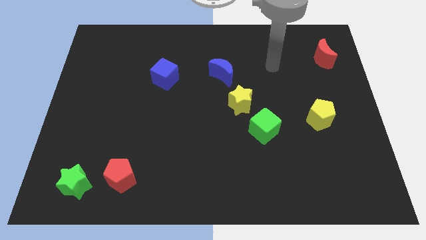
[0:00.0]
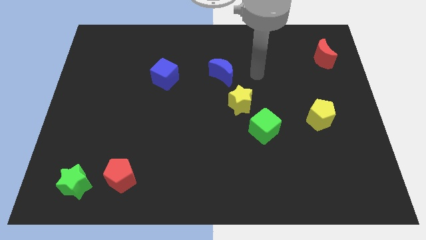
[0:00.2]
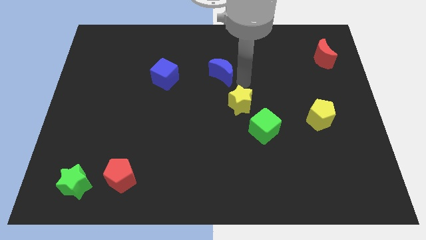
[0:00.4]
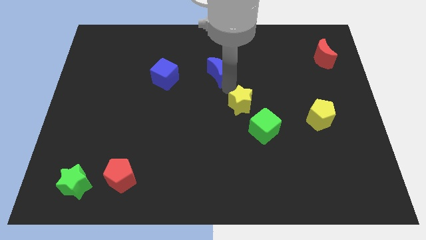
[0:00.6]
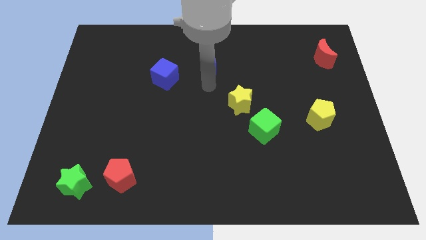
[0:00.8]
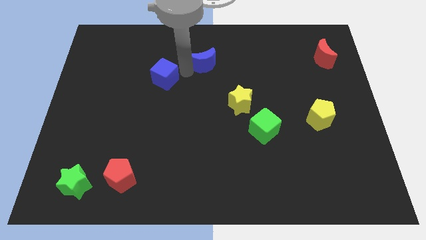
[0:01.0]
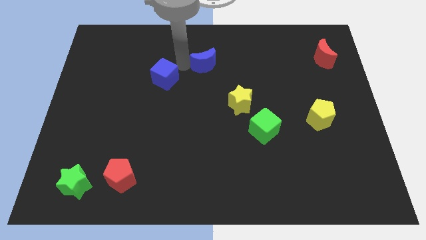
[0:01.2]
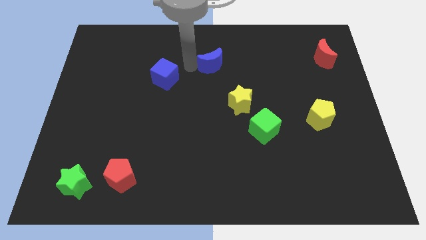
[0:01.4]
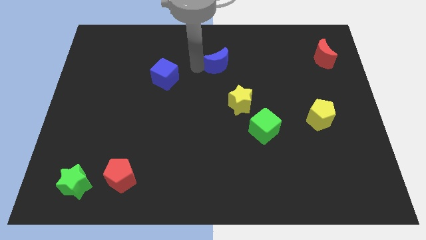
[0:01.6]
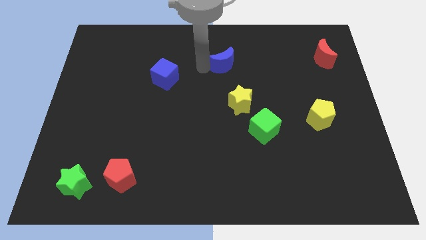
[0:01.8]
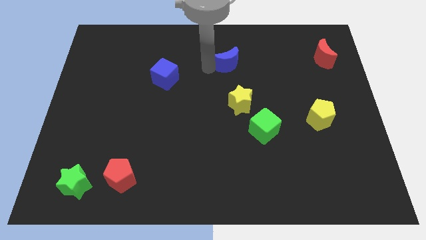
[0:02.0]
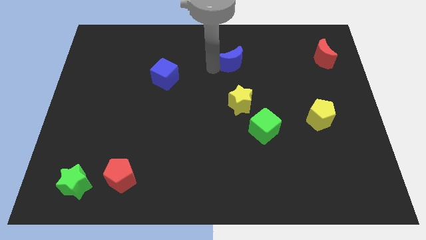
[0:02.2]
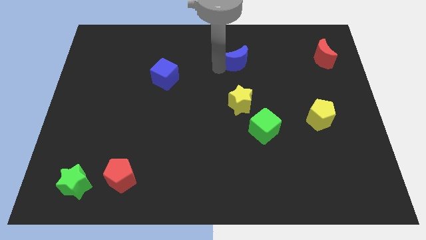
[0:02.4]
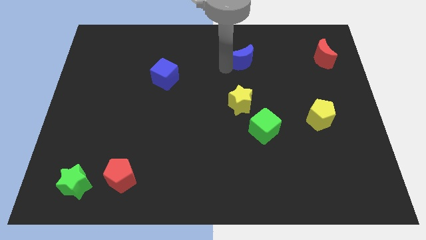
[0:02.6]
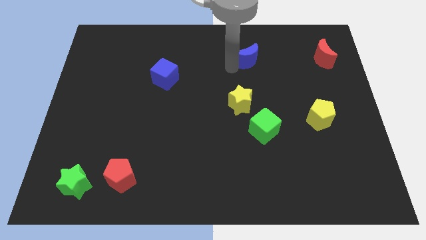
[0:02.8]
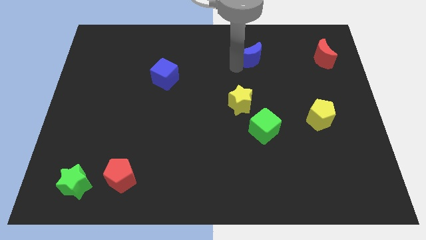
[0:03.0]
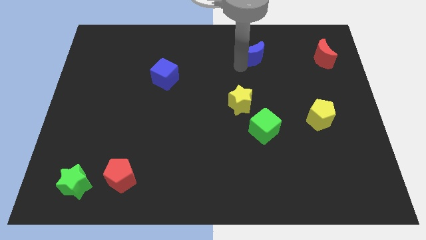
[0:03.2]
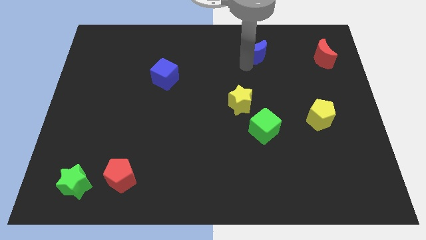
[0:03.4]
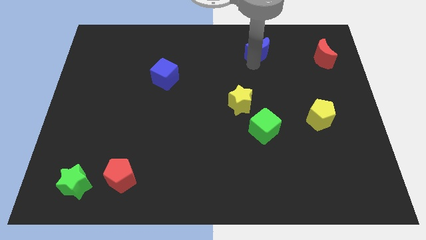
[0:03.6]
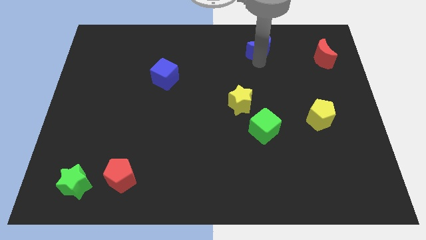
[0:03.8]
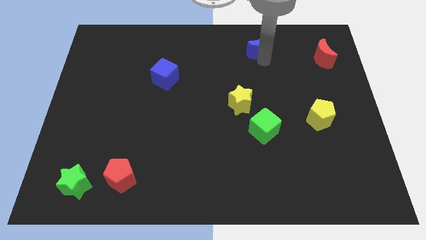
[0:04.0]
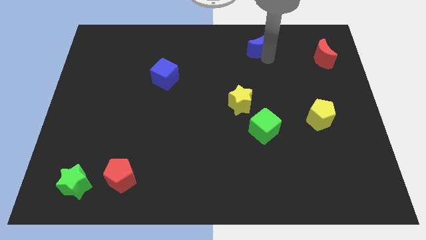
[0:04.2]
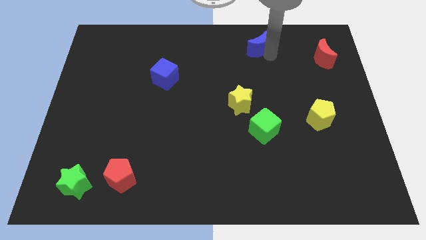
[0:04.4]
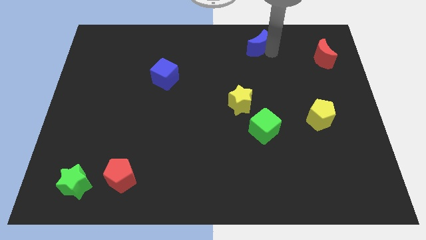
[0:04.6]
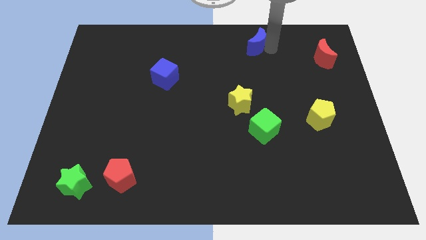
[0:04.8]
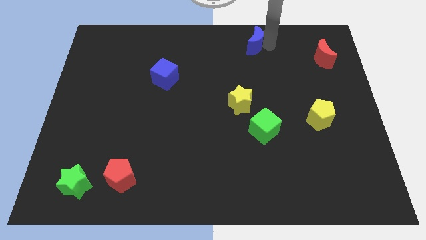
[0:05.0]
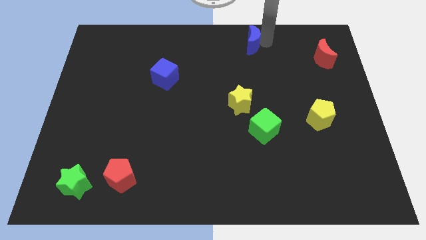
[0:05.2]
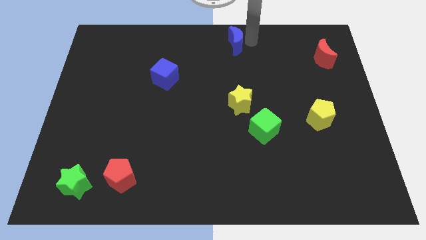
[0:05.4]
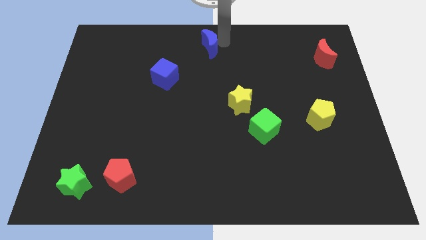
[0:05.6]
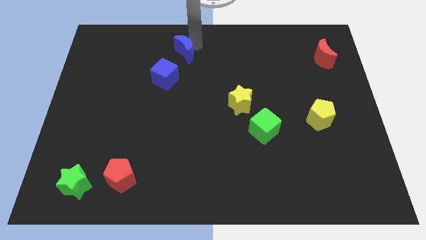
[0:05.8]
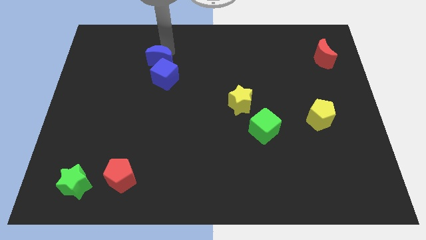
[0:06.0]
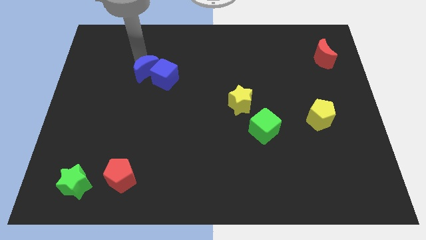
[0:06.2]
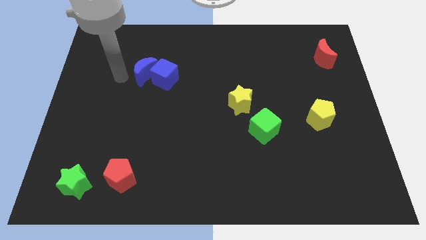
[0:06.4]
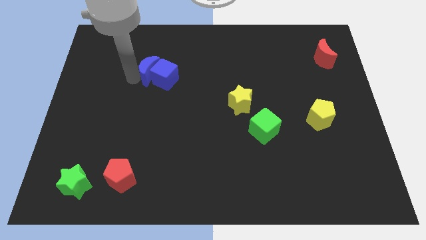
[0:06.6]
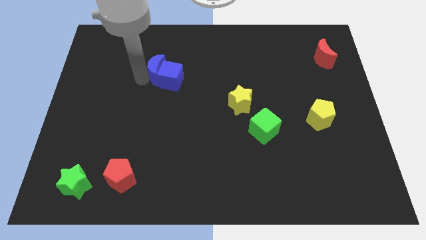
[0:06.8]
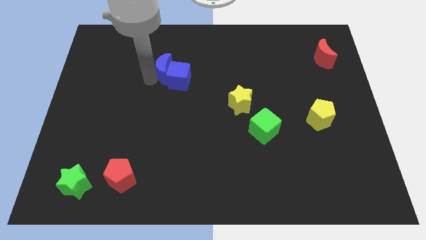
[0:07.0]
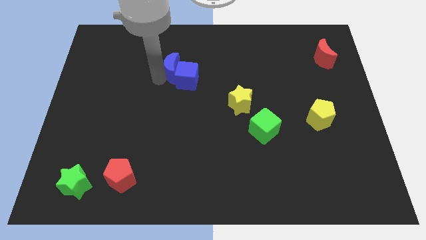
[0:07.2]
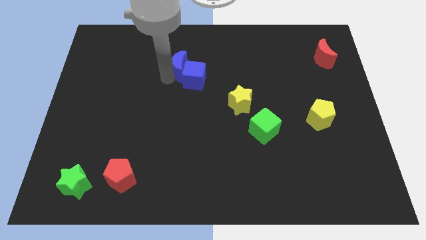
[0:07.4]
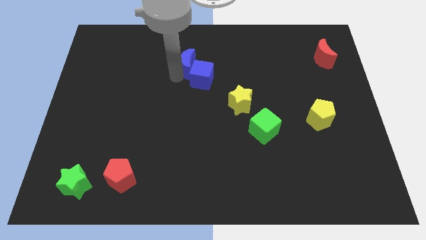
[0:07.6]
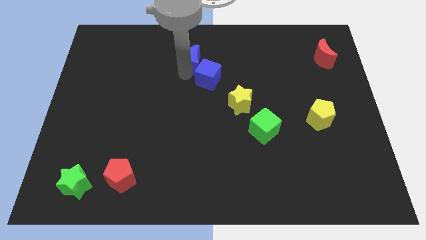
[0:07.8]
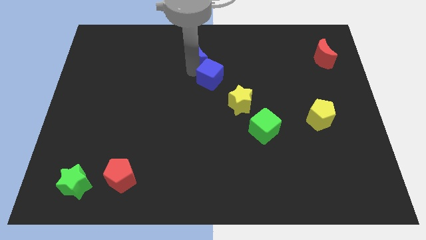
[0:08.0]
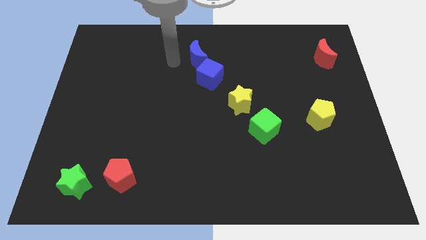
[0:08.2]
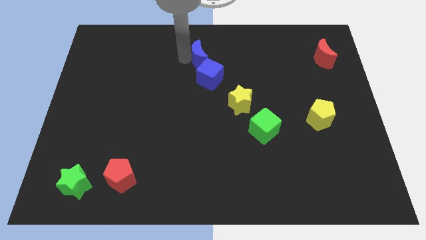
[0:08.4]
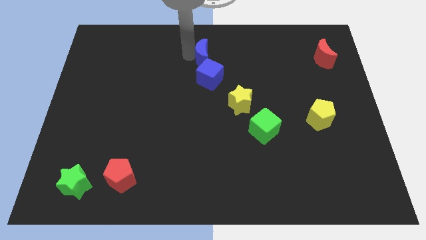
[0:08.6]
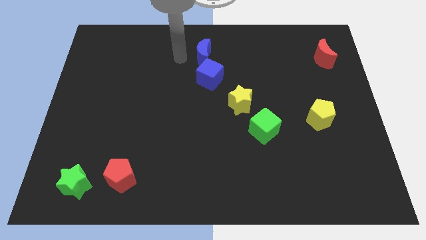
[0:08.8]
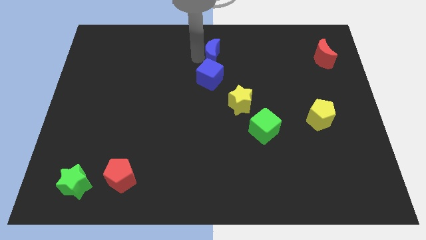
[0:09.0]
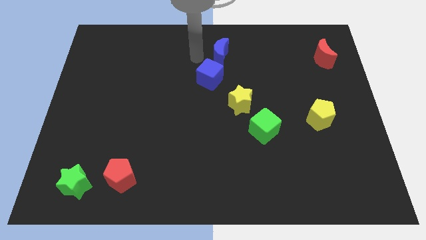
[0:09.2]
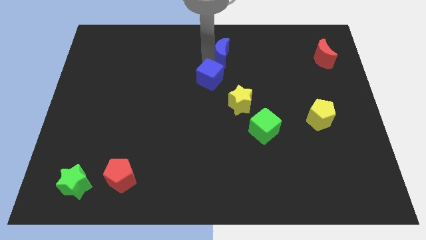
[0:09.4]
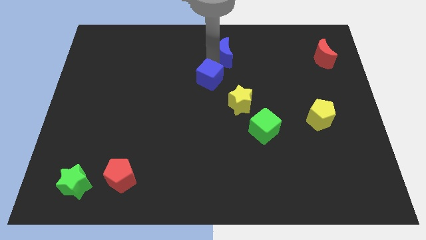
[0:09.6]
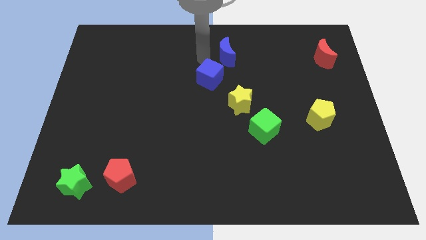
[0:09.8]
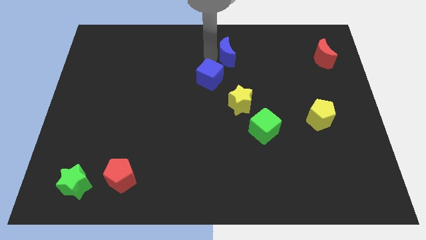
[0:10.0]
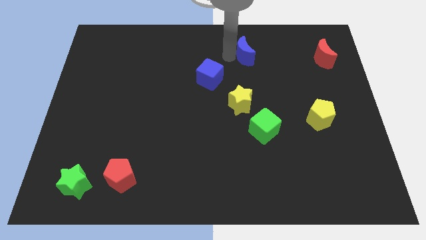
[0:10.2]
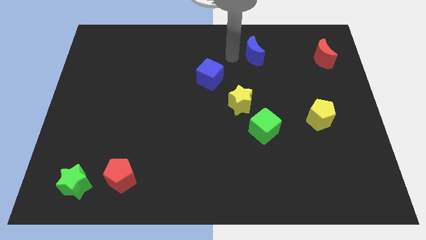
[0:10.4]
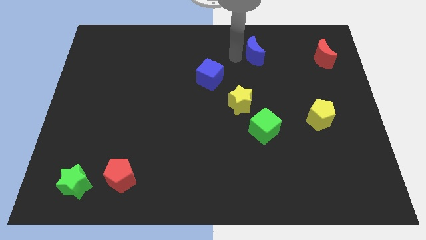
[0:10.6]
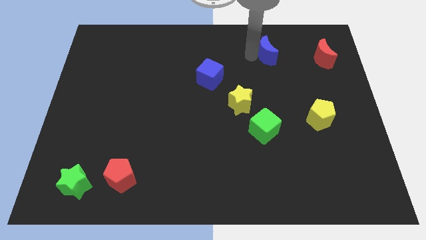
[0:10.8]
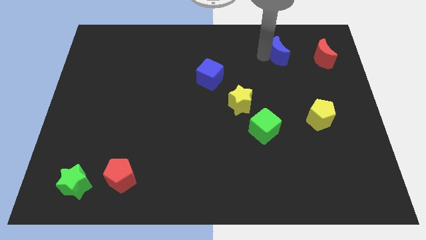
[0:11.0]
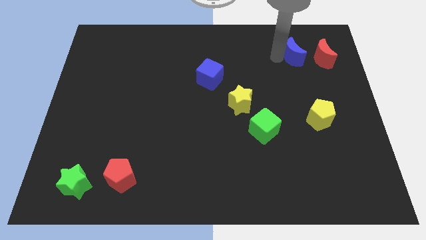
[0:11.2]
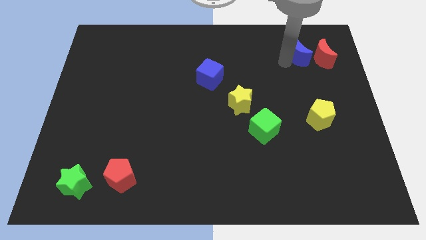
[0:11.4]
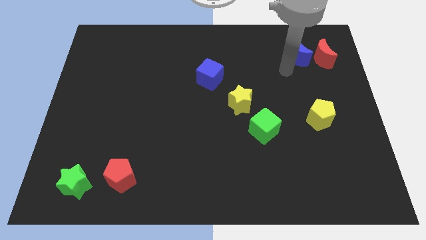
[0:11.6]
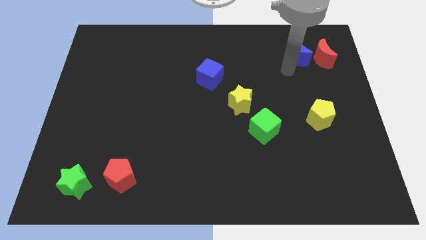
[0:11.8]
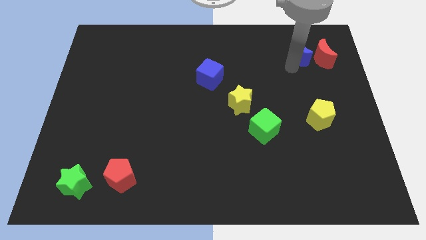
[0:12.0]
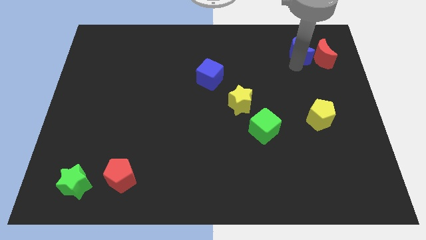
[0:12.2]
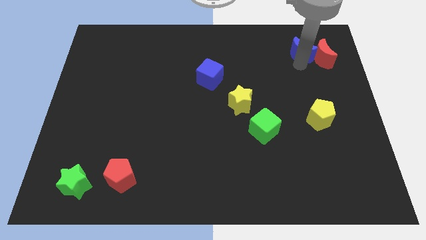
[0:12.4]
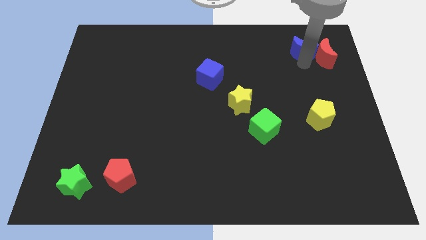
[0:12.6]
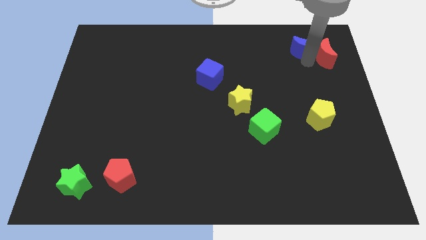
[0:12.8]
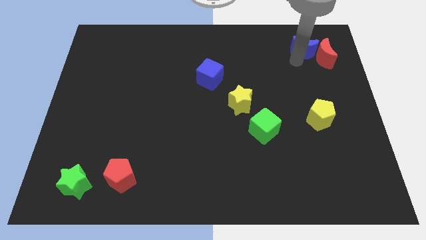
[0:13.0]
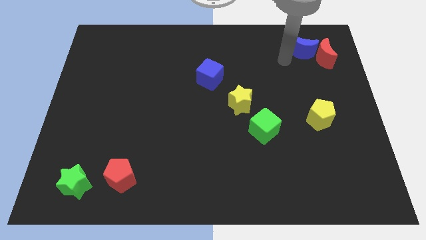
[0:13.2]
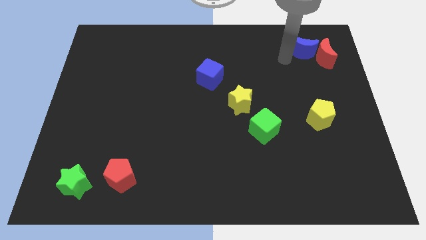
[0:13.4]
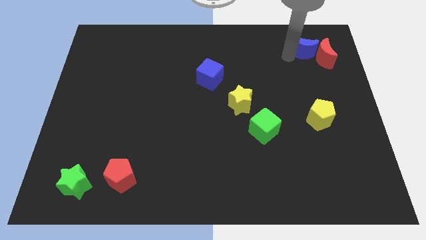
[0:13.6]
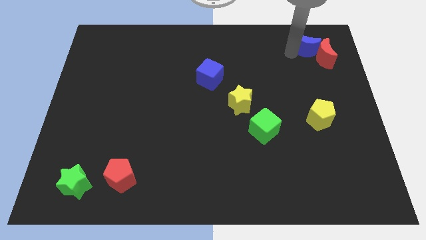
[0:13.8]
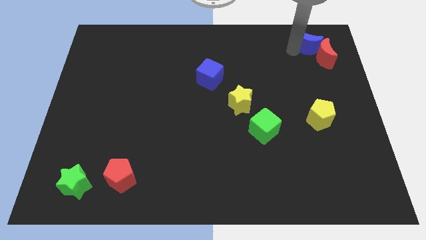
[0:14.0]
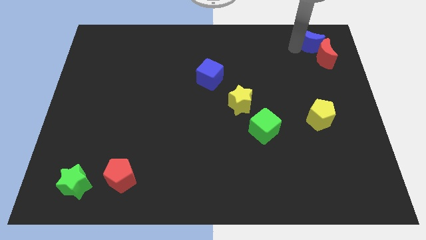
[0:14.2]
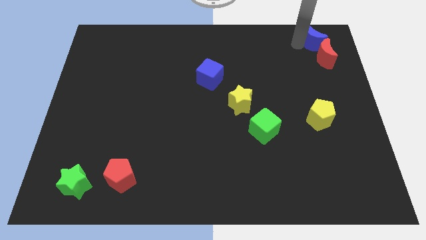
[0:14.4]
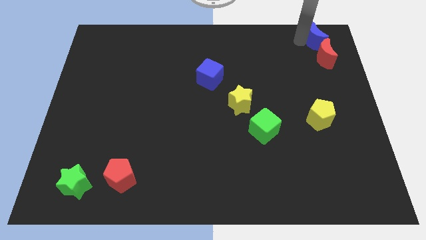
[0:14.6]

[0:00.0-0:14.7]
push the blue moon to the top right

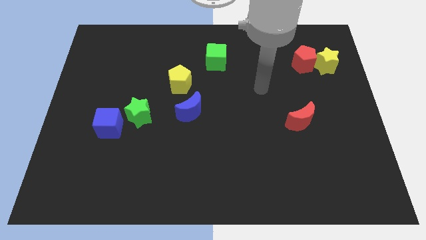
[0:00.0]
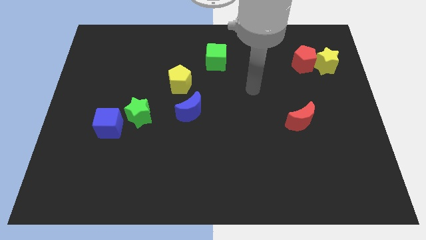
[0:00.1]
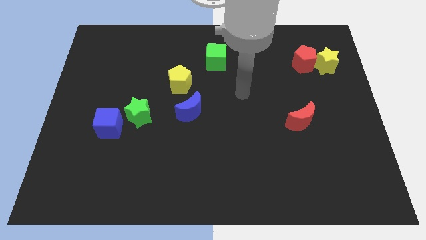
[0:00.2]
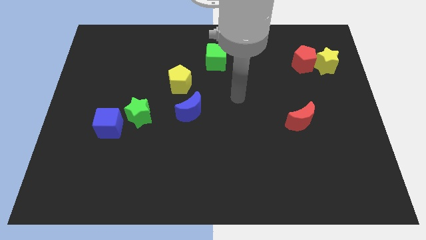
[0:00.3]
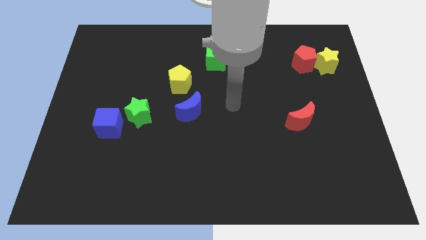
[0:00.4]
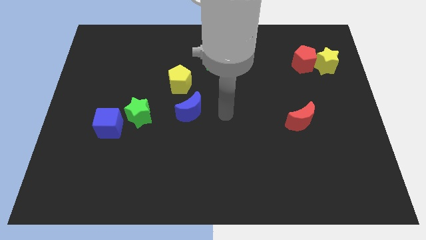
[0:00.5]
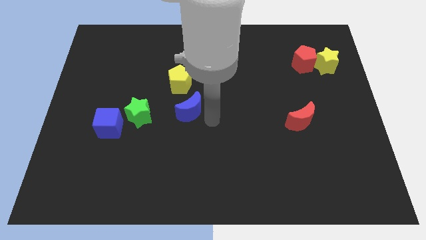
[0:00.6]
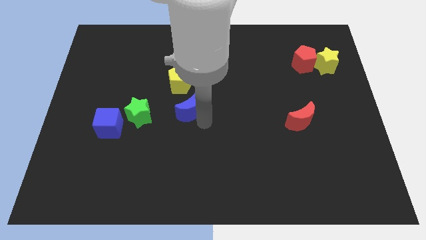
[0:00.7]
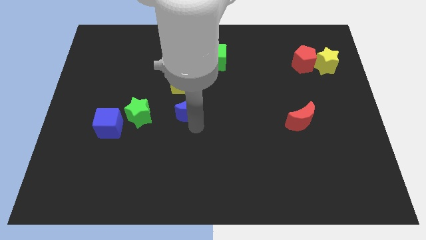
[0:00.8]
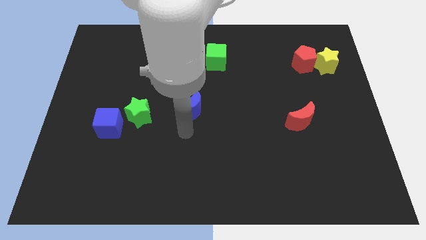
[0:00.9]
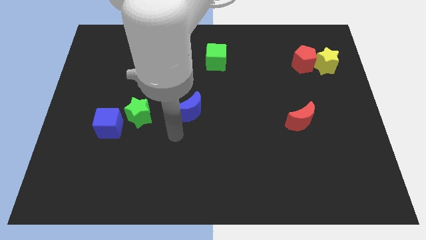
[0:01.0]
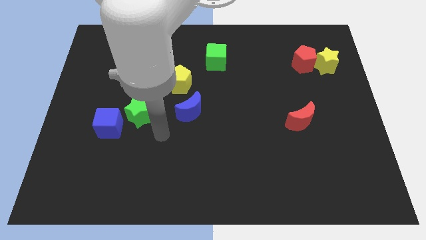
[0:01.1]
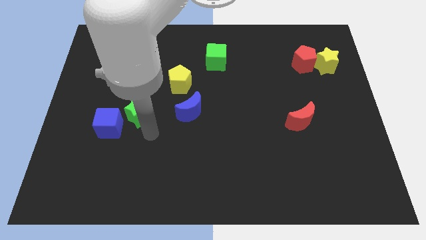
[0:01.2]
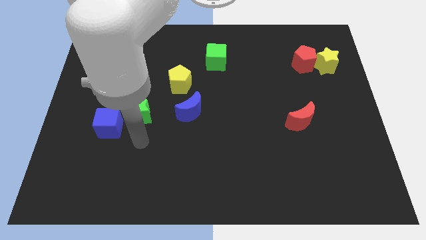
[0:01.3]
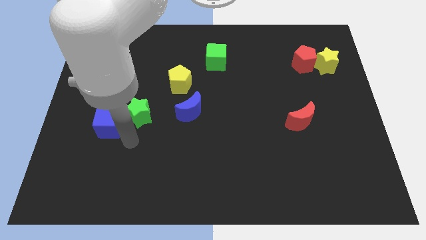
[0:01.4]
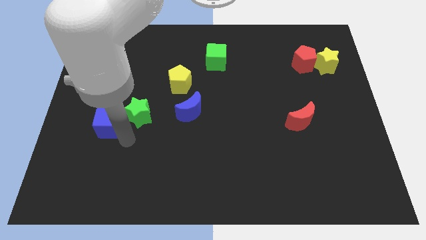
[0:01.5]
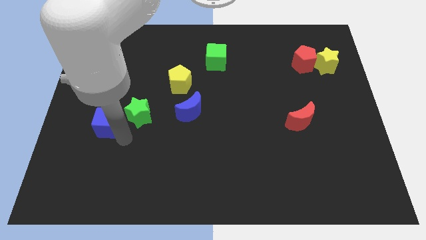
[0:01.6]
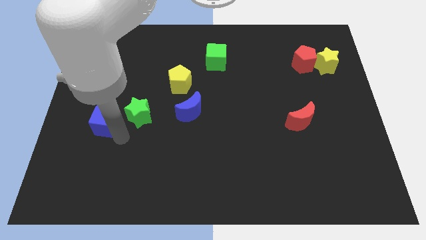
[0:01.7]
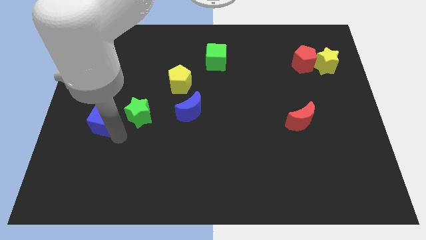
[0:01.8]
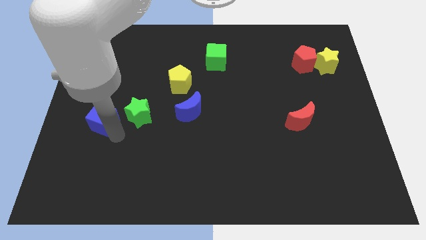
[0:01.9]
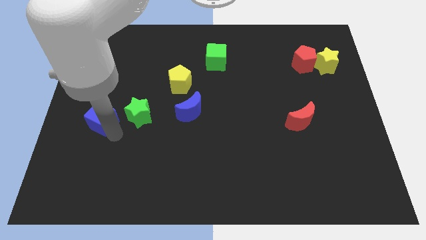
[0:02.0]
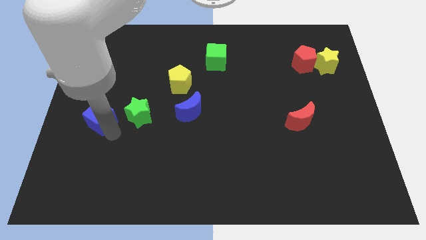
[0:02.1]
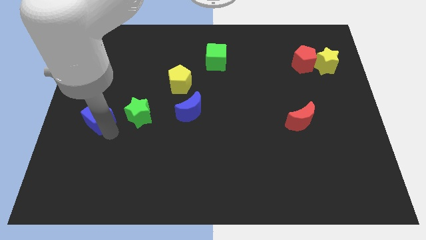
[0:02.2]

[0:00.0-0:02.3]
slide the blue cube to the center left
